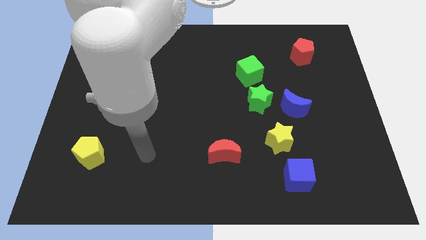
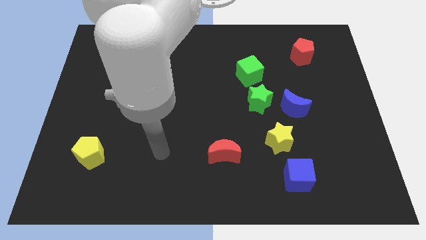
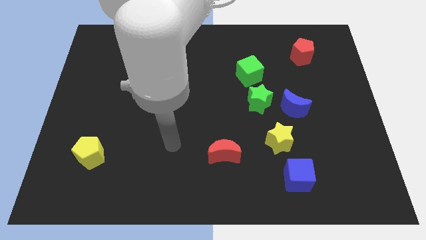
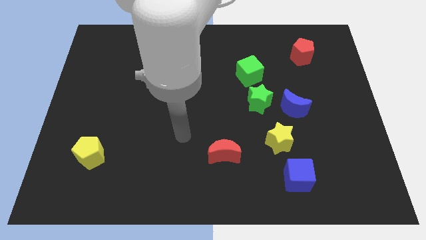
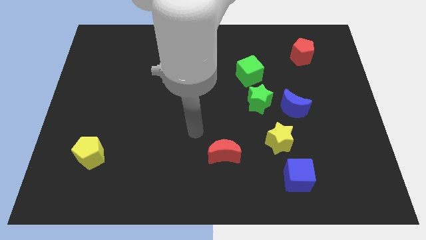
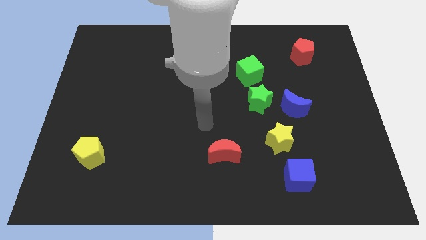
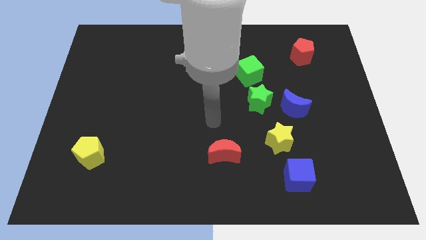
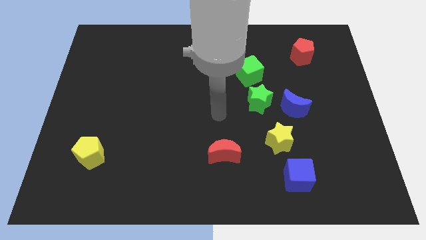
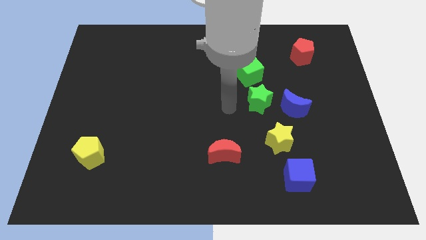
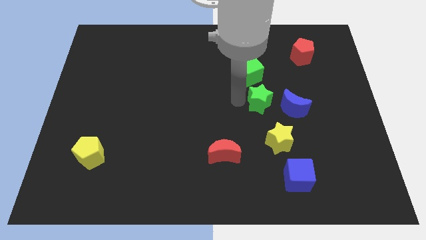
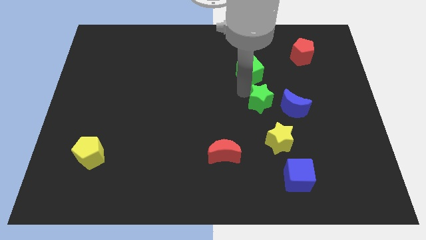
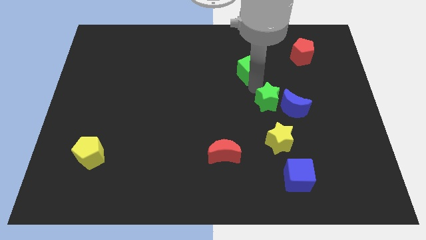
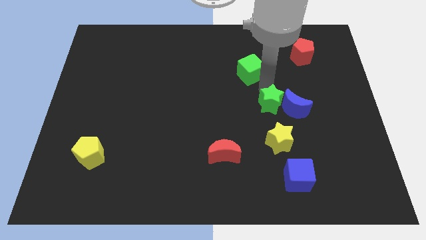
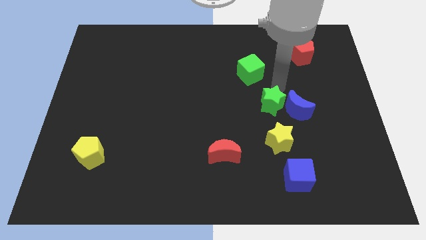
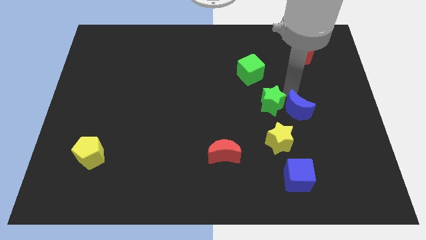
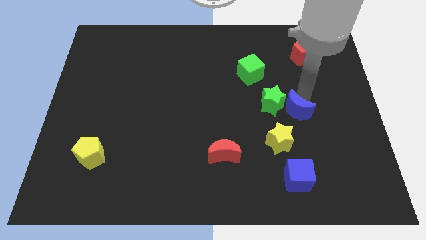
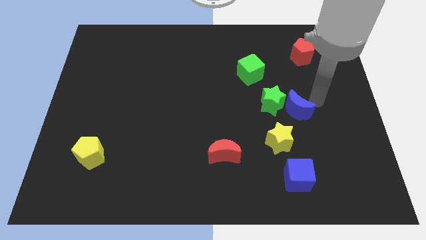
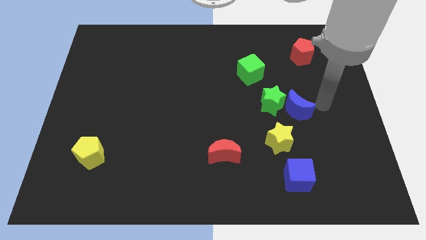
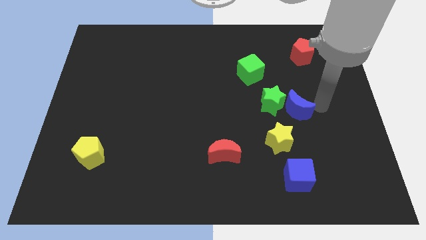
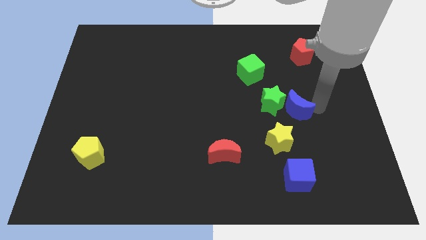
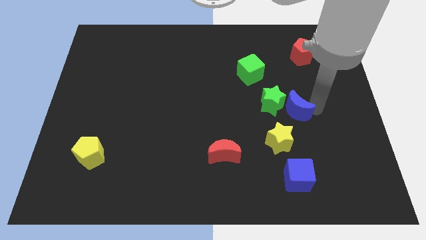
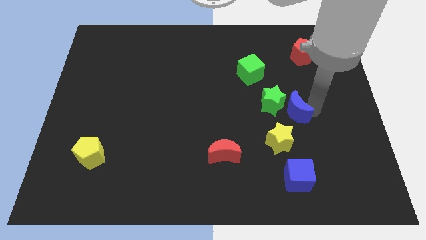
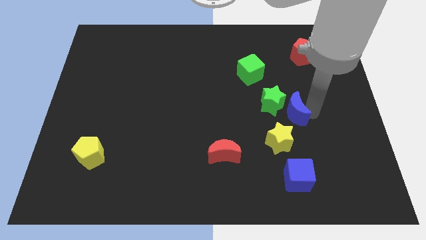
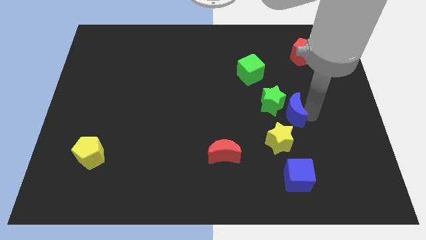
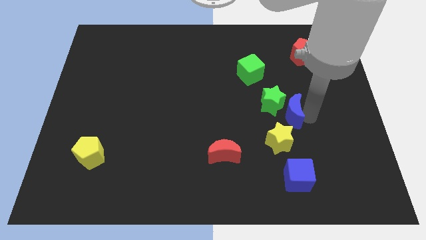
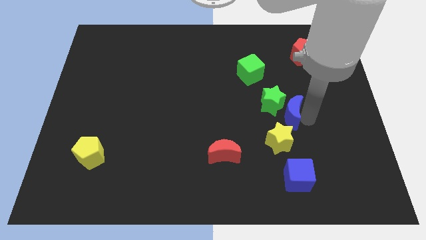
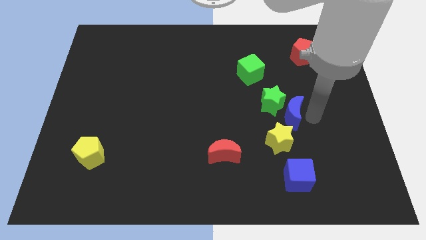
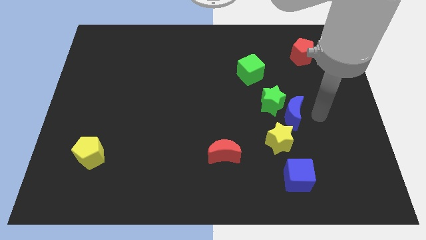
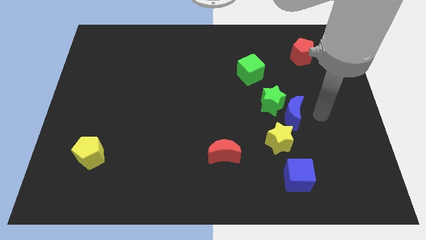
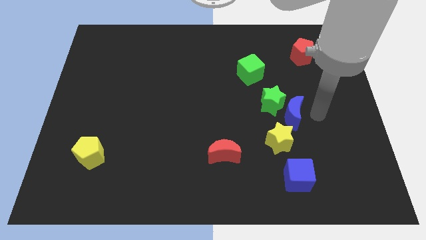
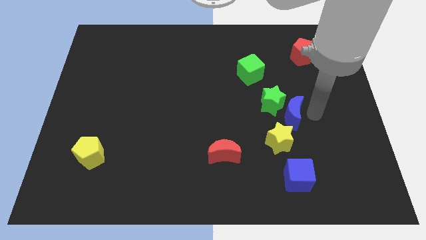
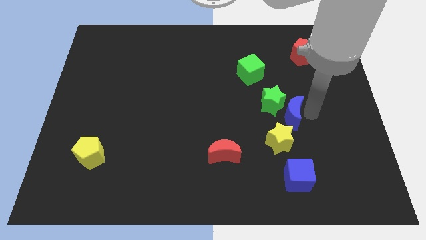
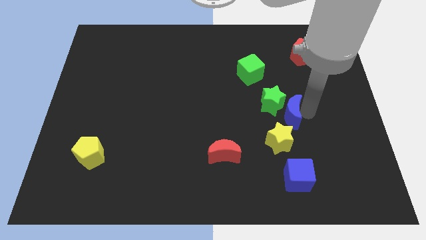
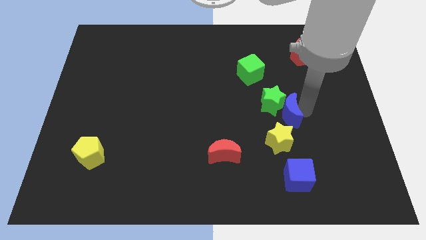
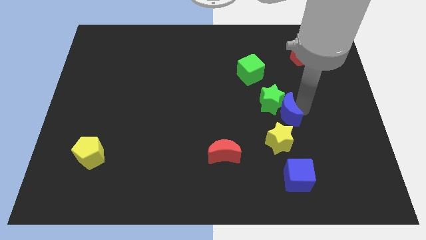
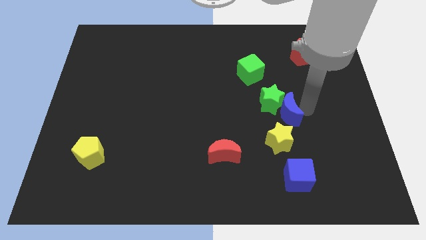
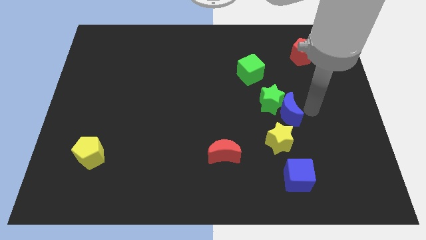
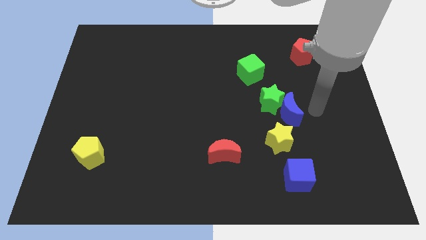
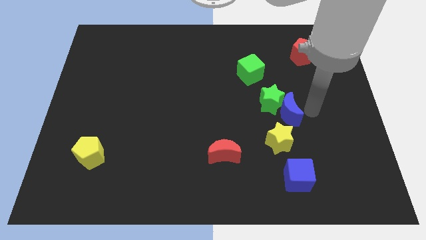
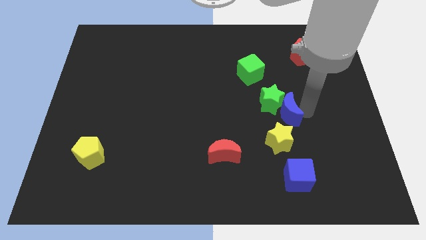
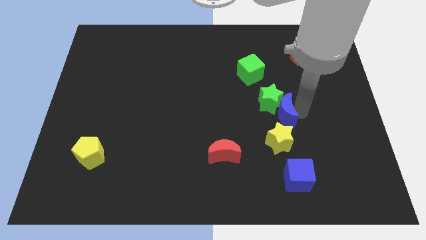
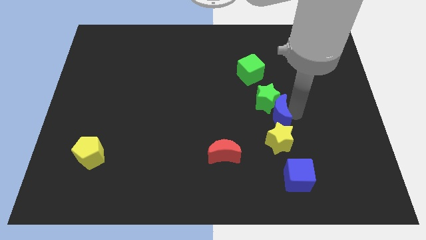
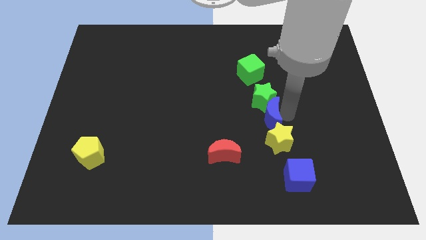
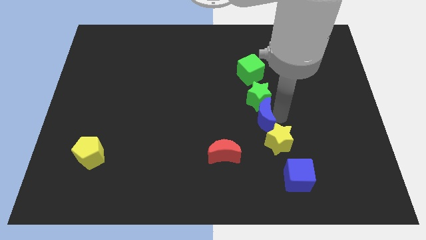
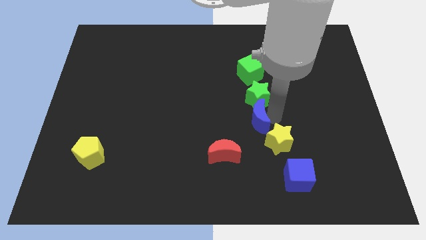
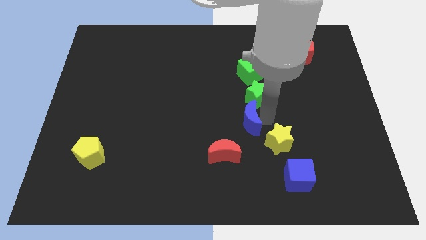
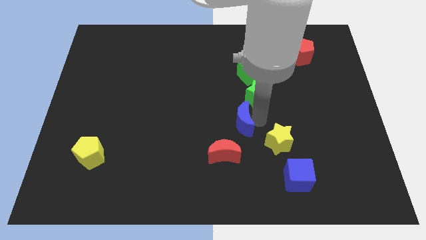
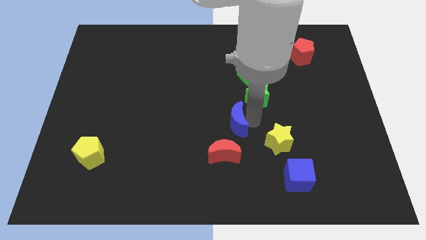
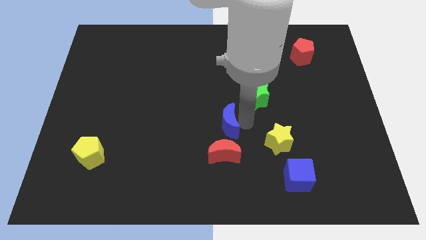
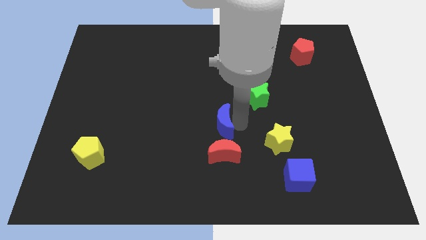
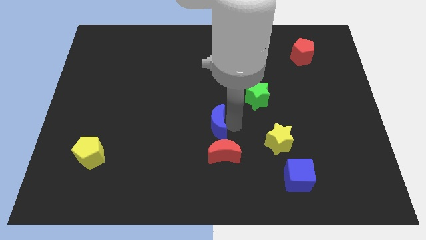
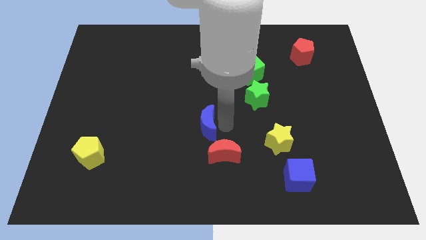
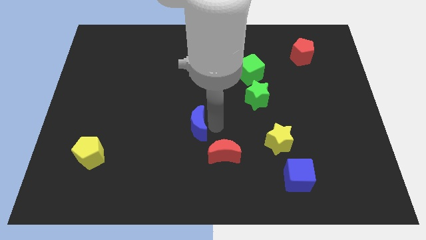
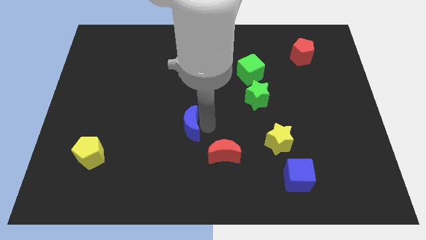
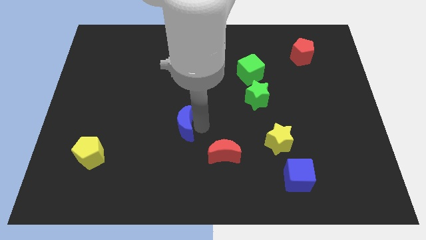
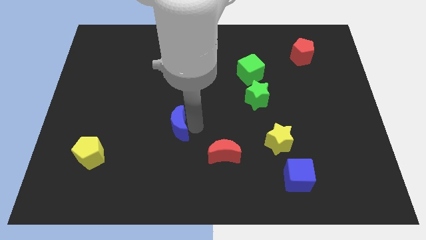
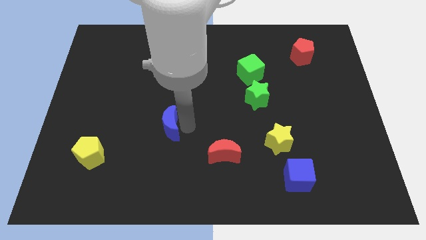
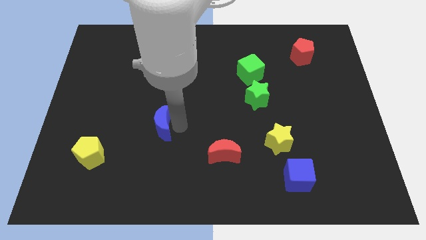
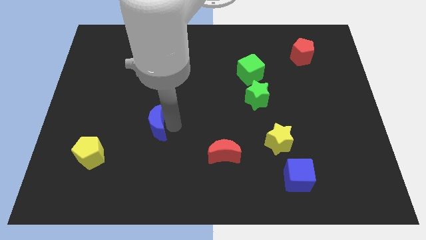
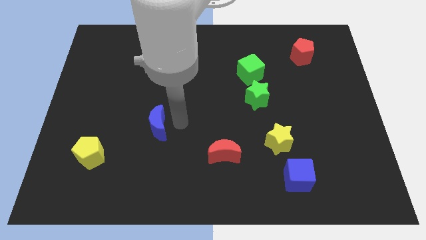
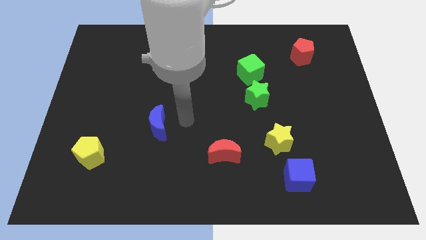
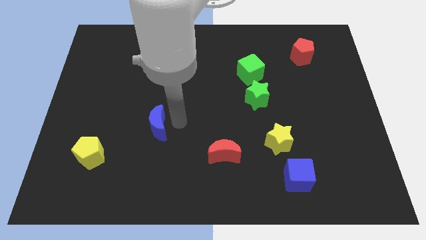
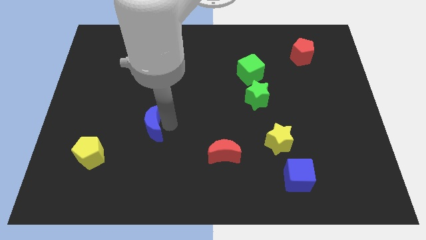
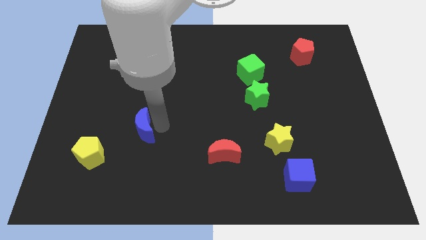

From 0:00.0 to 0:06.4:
slide the blue moon diagonally up and to the right of the yellow pentagon

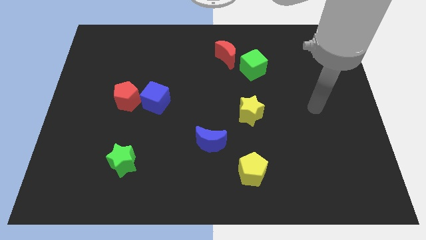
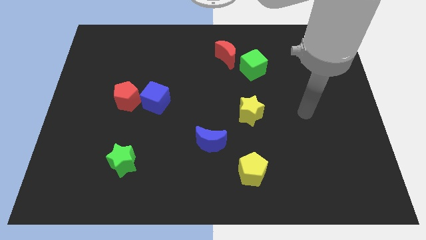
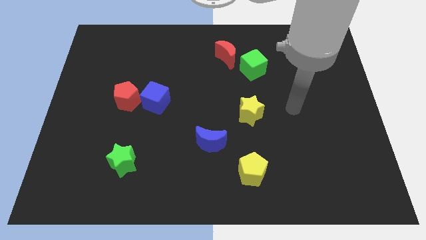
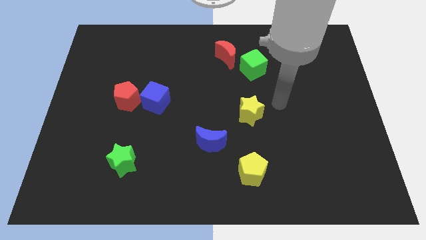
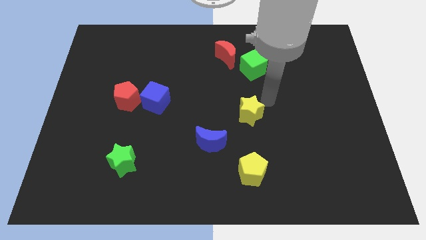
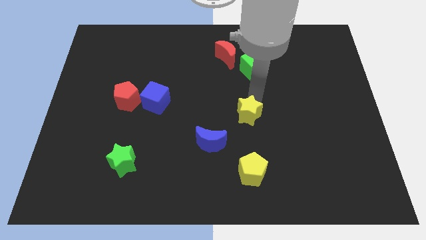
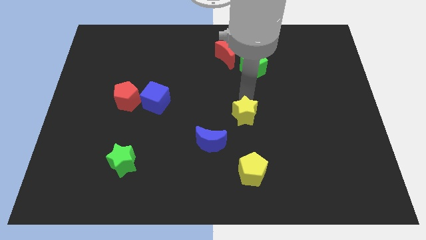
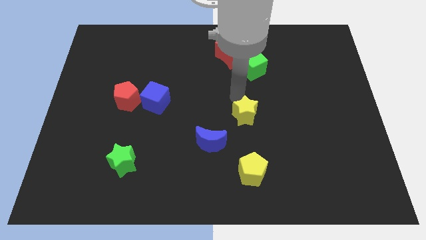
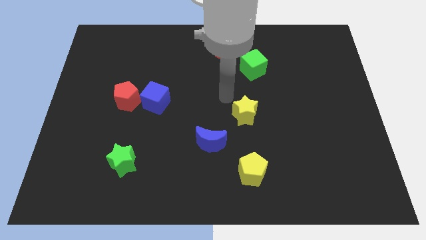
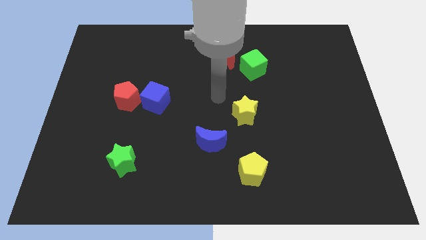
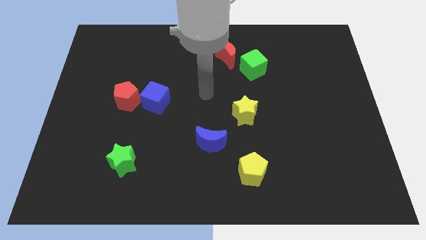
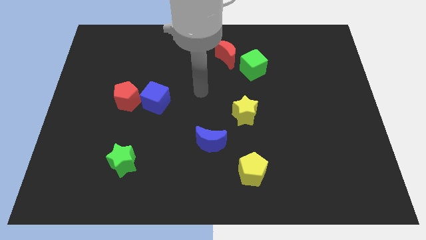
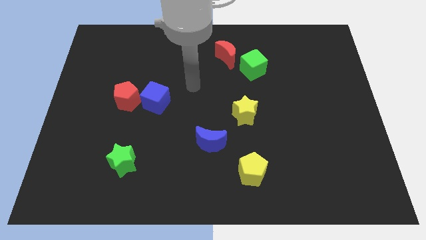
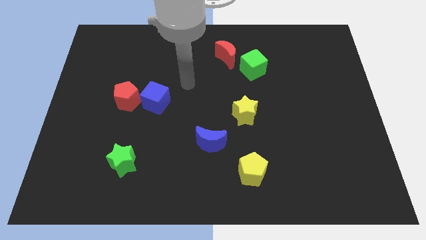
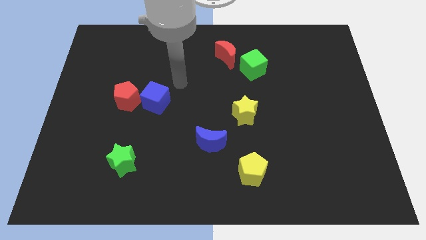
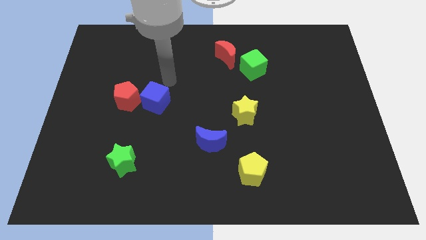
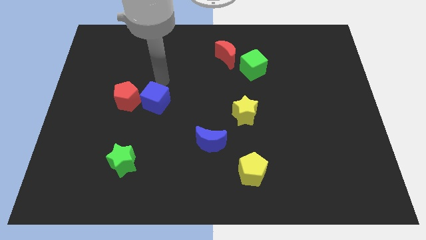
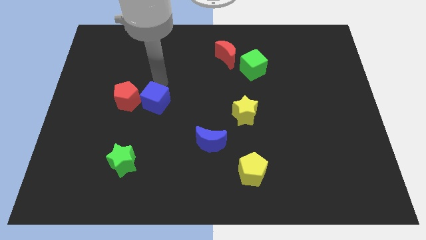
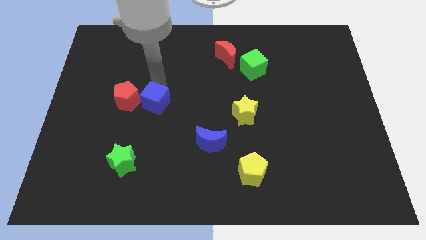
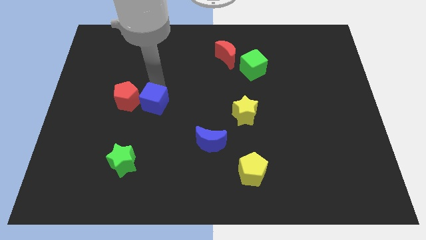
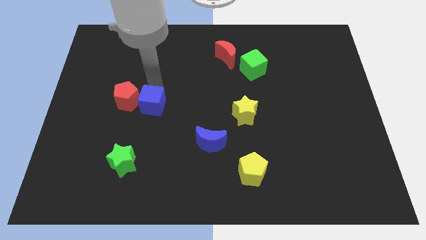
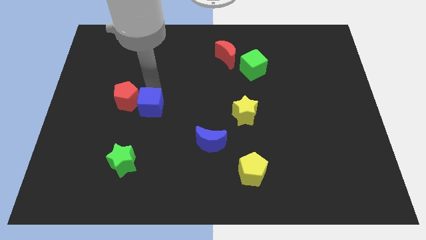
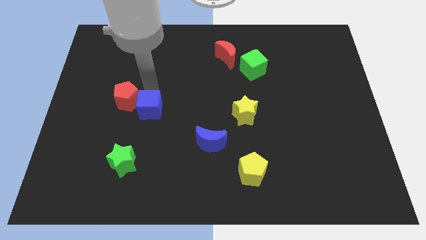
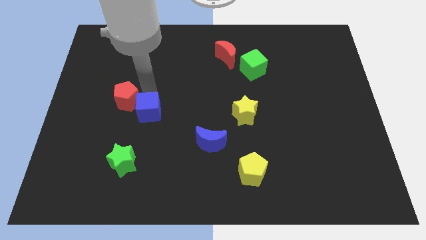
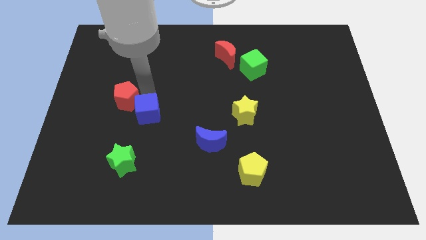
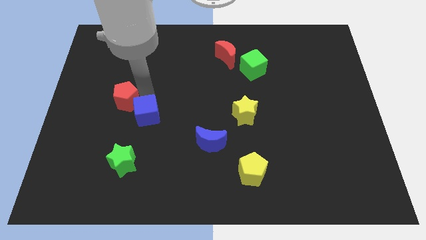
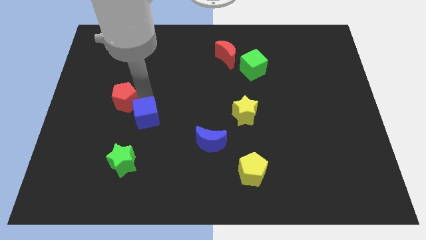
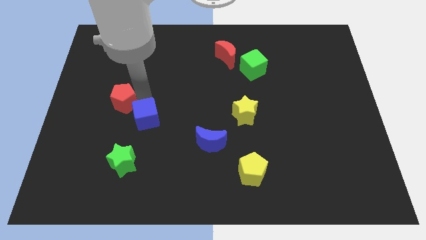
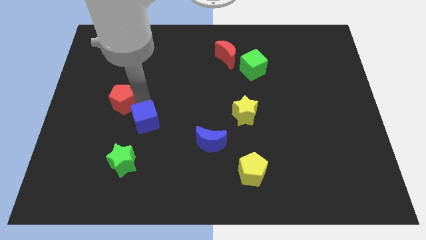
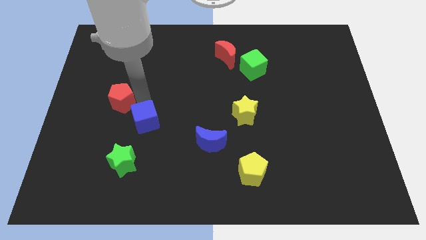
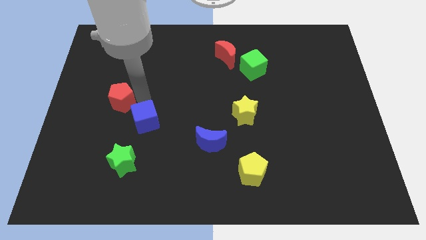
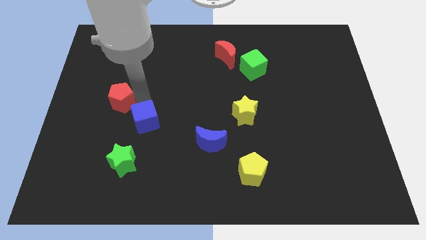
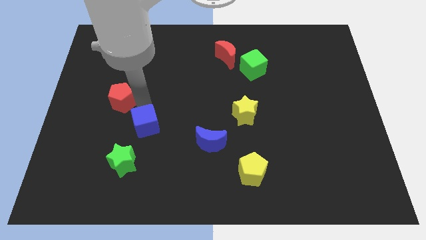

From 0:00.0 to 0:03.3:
move the blue cube diagonally up and to the right of the green star
